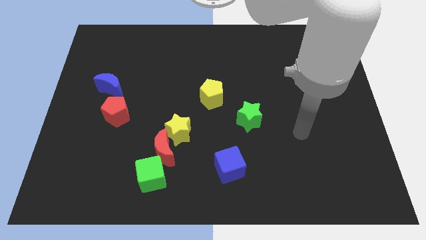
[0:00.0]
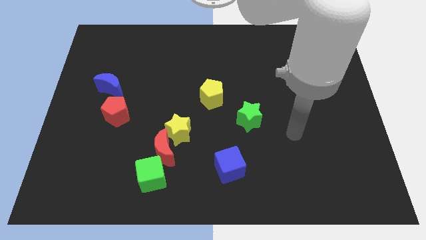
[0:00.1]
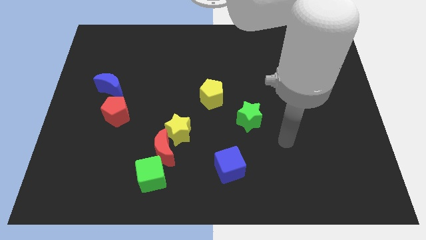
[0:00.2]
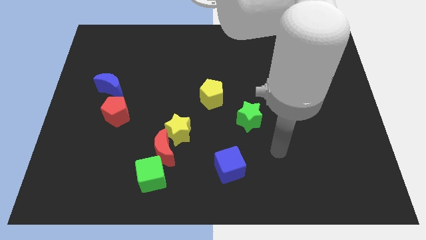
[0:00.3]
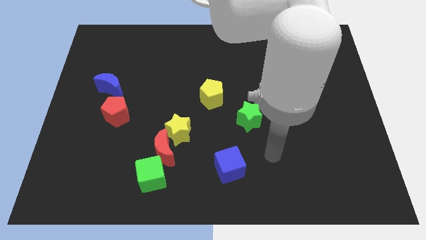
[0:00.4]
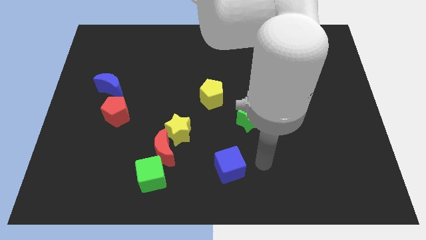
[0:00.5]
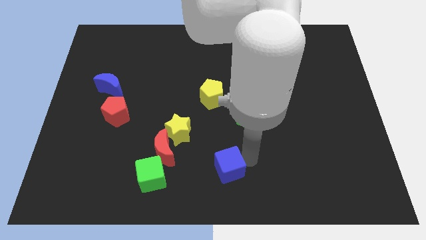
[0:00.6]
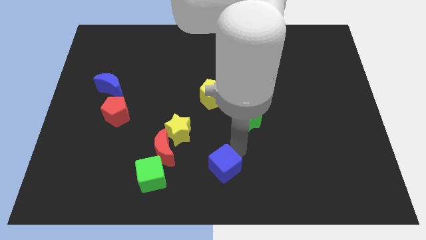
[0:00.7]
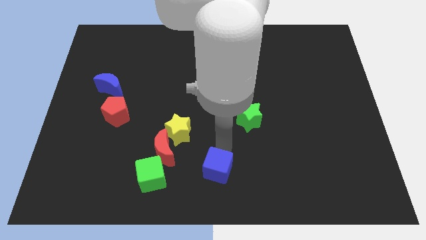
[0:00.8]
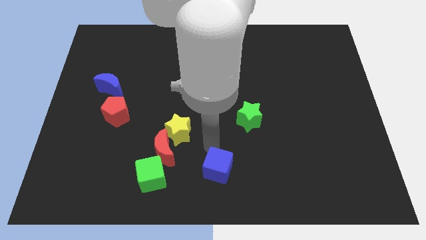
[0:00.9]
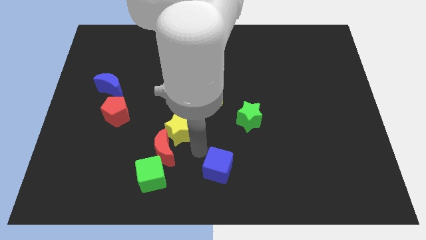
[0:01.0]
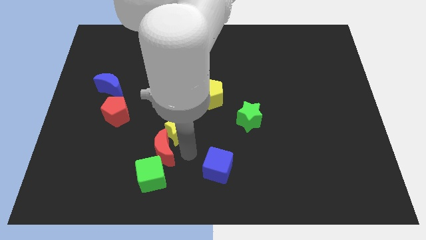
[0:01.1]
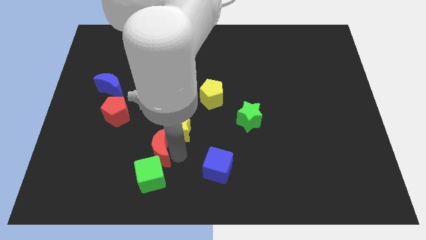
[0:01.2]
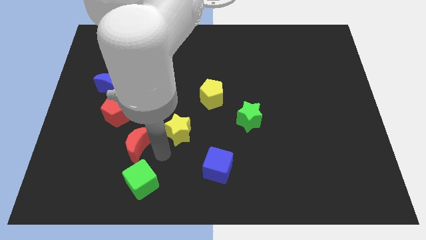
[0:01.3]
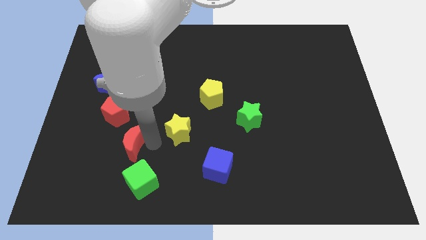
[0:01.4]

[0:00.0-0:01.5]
move the yellow star away from the red moon

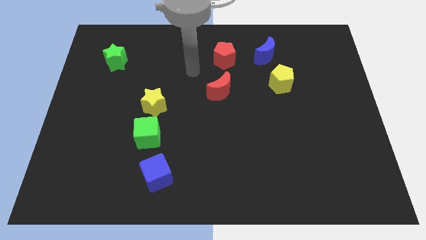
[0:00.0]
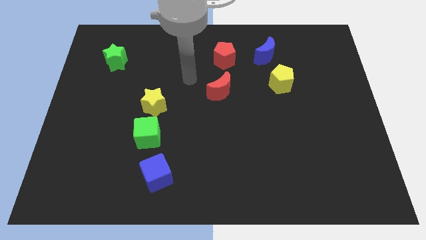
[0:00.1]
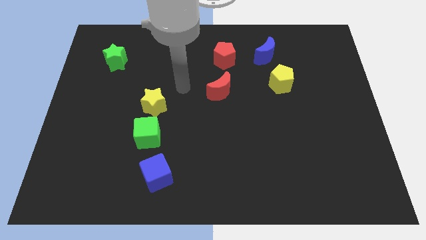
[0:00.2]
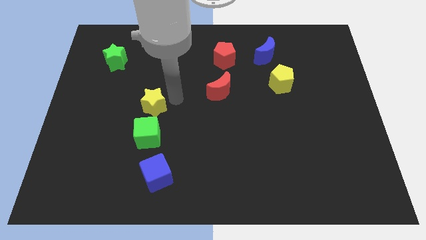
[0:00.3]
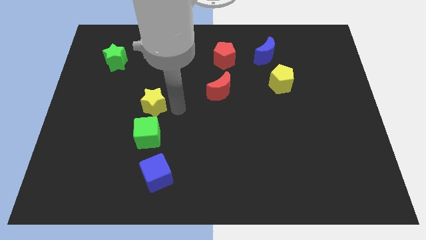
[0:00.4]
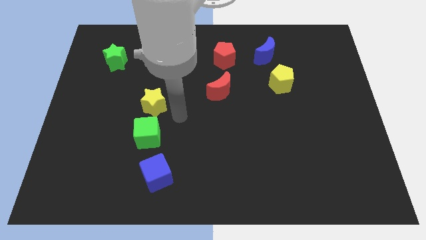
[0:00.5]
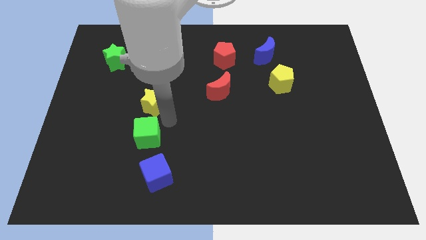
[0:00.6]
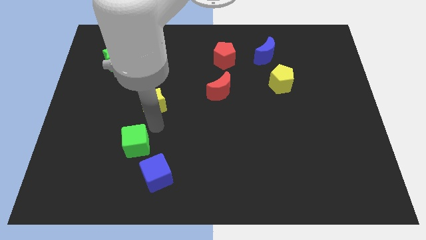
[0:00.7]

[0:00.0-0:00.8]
move the yellow star away from the green cube

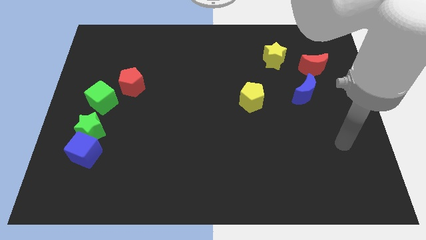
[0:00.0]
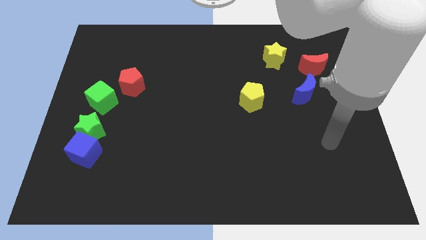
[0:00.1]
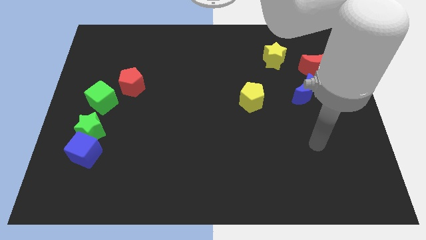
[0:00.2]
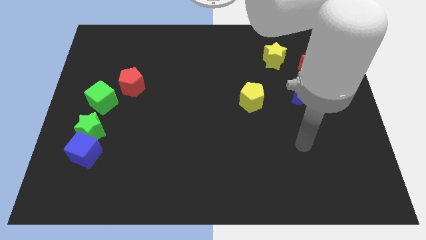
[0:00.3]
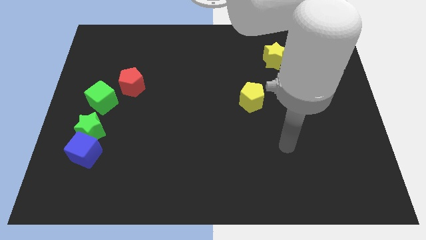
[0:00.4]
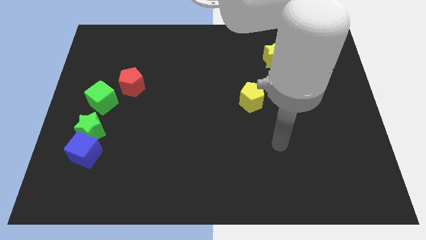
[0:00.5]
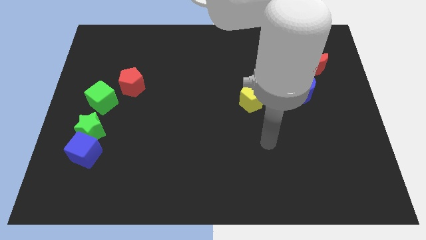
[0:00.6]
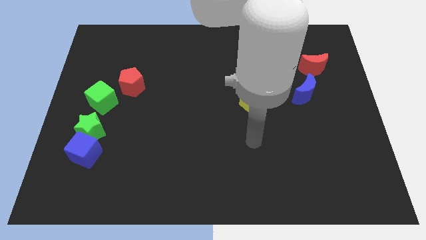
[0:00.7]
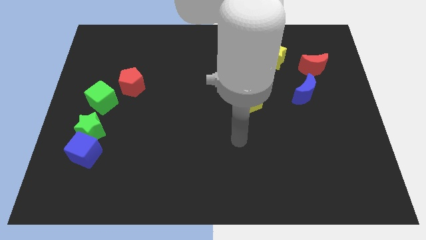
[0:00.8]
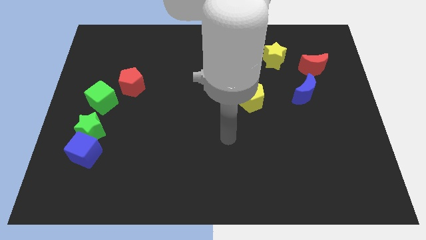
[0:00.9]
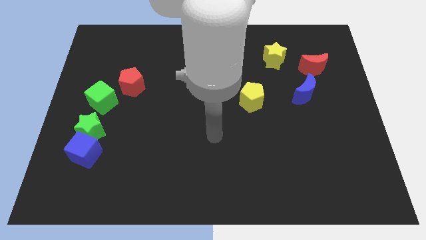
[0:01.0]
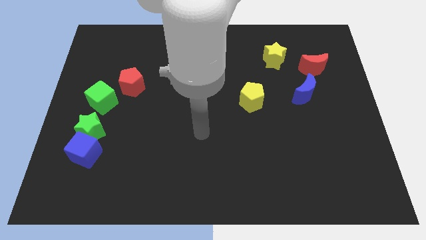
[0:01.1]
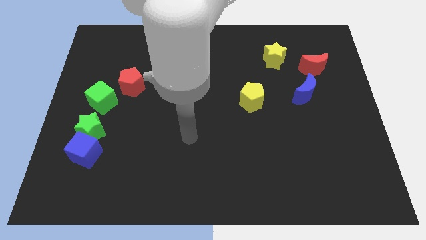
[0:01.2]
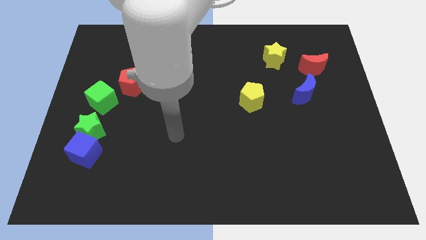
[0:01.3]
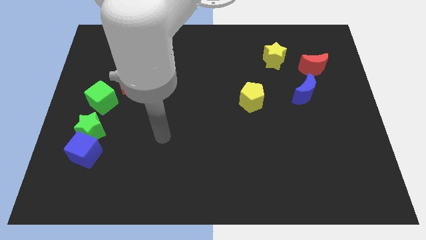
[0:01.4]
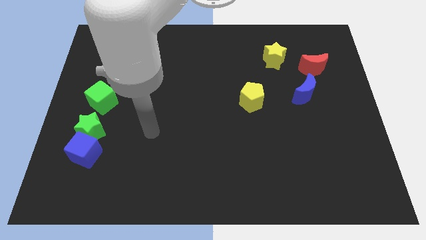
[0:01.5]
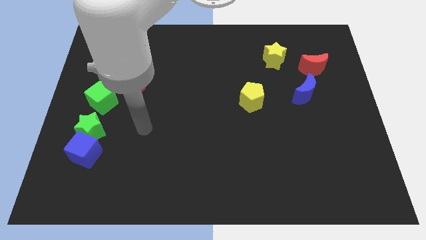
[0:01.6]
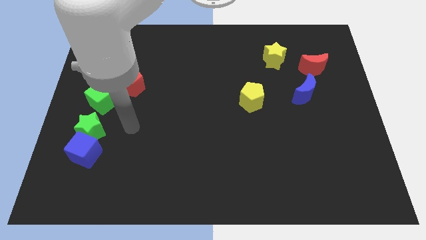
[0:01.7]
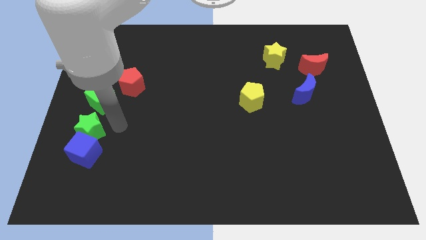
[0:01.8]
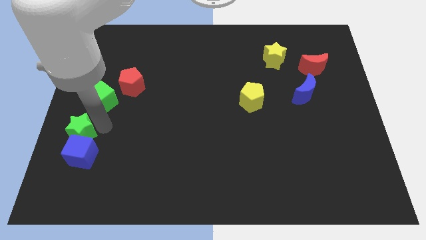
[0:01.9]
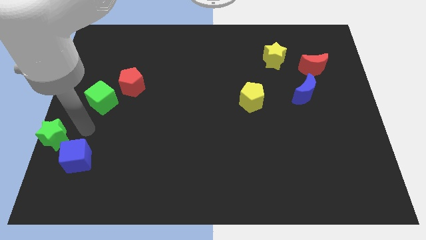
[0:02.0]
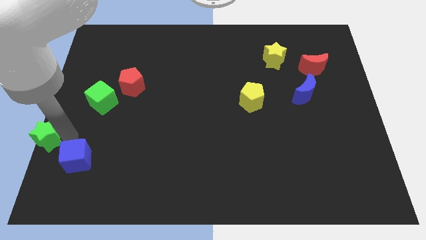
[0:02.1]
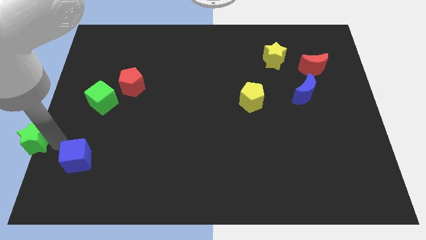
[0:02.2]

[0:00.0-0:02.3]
pull the blue cube apart from the green star

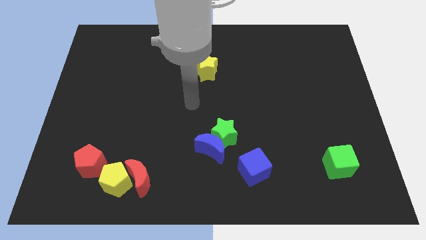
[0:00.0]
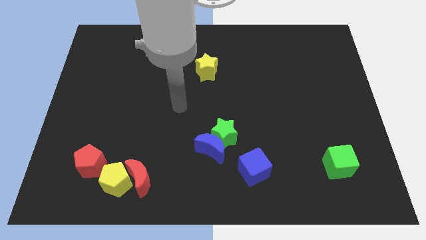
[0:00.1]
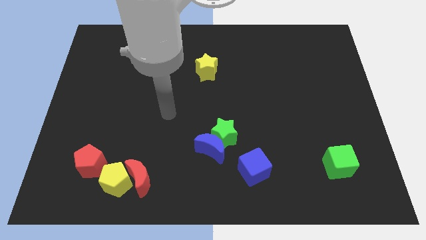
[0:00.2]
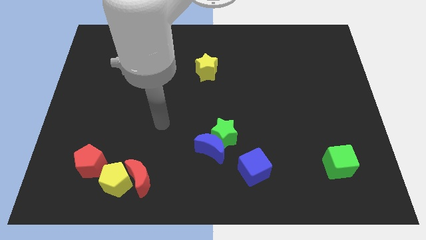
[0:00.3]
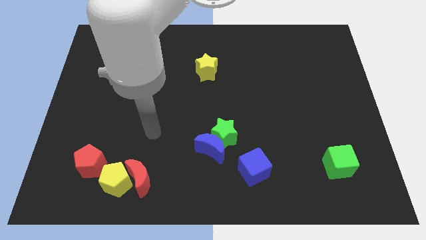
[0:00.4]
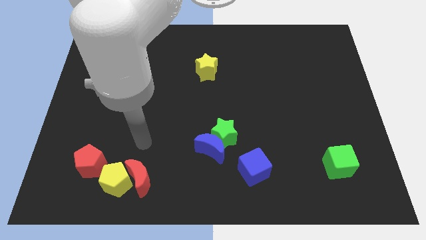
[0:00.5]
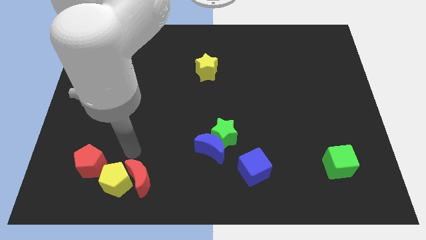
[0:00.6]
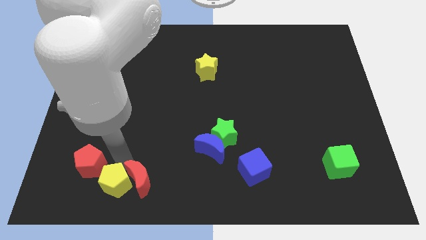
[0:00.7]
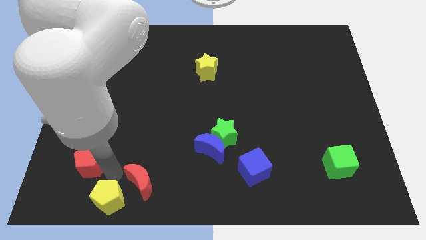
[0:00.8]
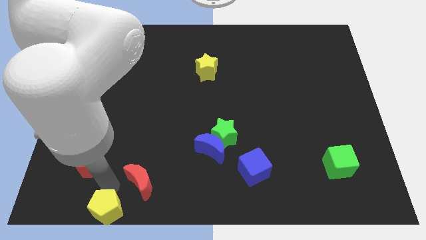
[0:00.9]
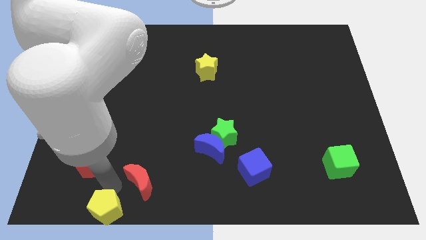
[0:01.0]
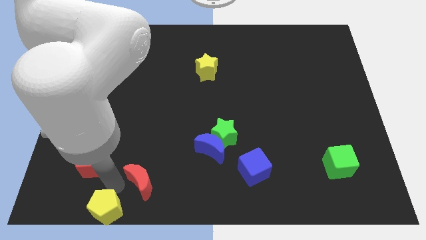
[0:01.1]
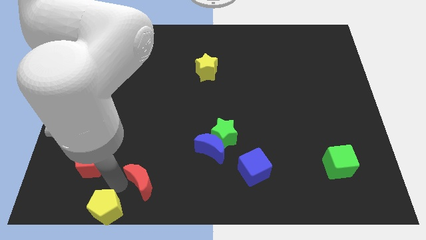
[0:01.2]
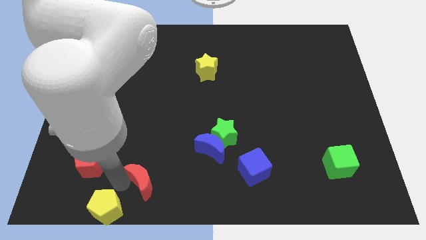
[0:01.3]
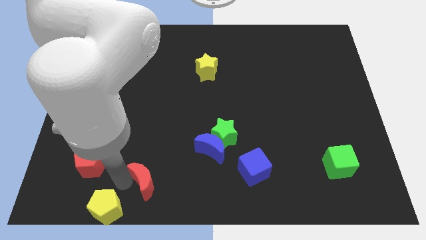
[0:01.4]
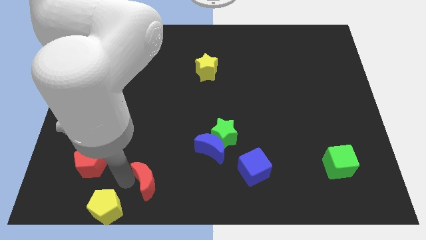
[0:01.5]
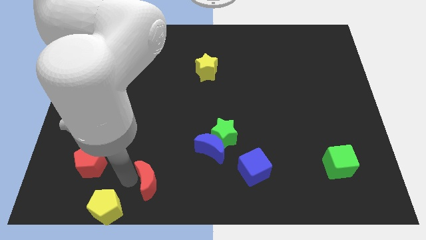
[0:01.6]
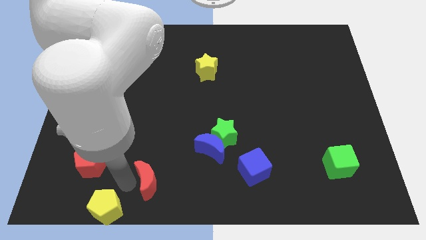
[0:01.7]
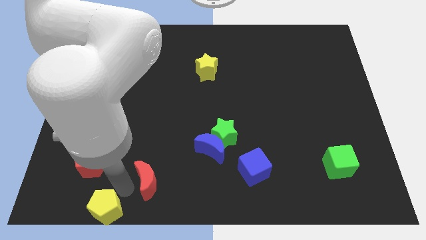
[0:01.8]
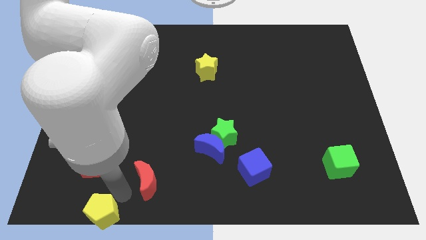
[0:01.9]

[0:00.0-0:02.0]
pull the red moon apart from the yellow pentagon

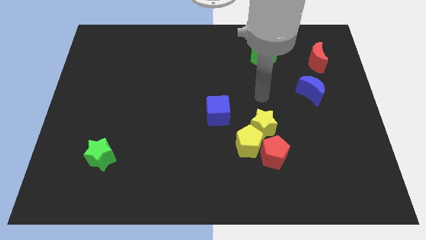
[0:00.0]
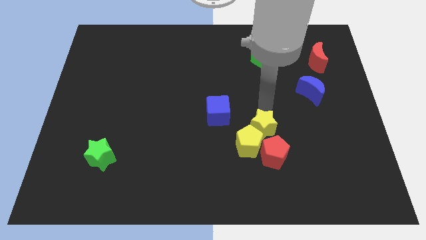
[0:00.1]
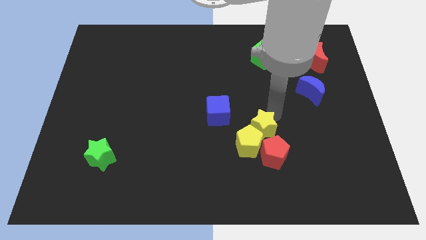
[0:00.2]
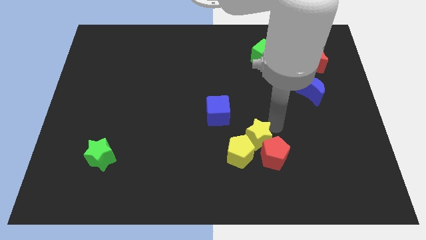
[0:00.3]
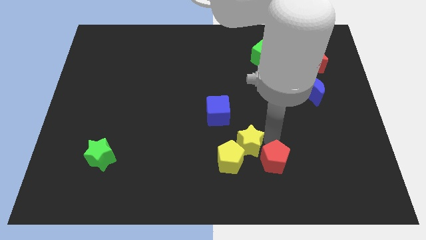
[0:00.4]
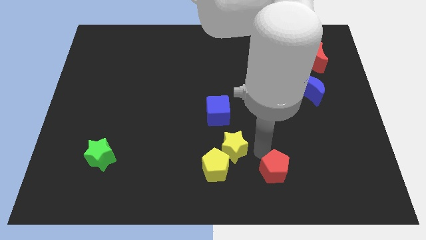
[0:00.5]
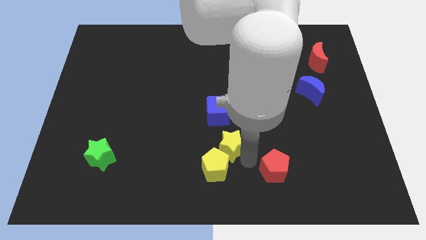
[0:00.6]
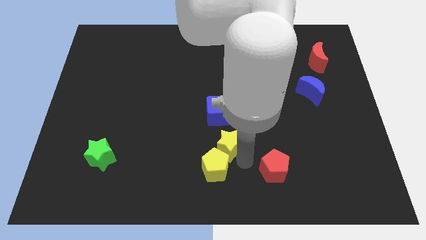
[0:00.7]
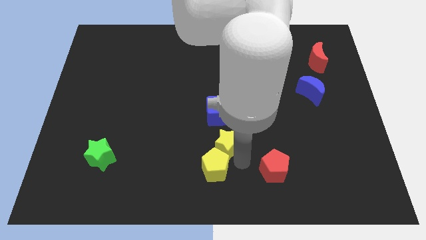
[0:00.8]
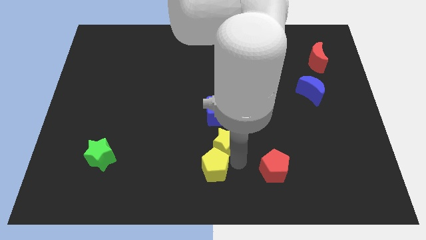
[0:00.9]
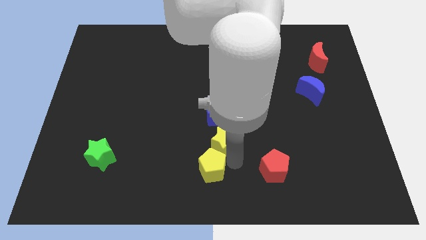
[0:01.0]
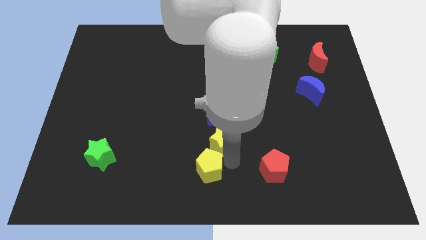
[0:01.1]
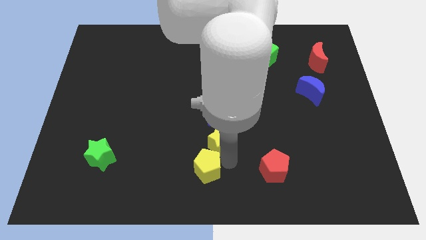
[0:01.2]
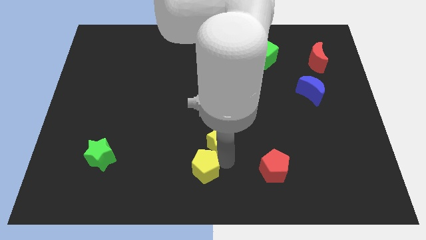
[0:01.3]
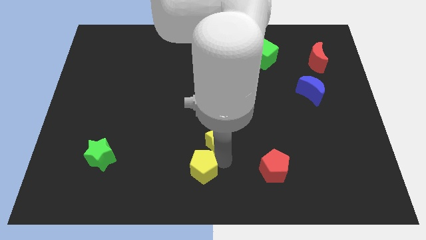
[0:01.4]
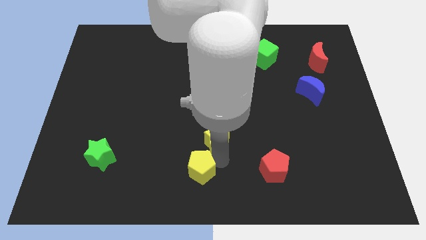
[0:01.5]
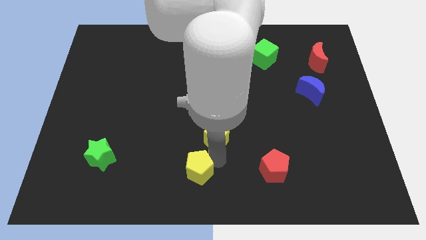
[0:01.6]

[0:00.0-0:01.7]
move the yellow pentagon away from the yellow star and red pentagon

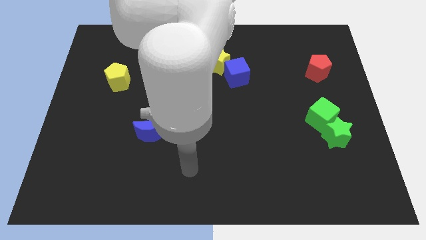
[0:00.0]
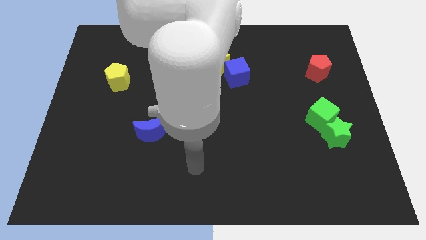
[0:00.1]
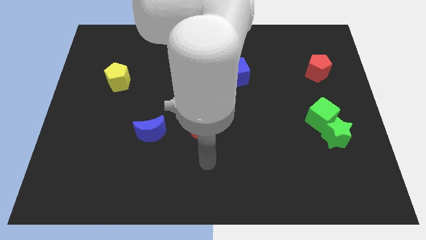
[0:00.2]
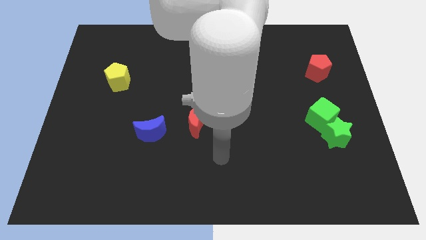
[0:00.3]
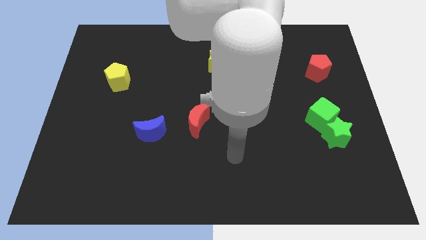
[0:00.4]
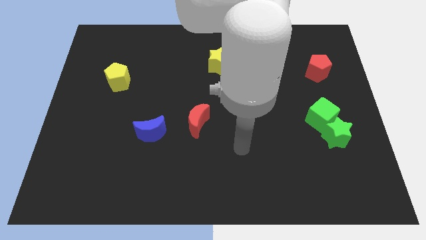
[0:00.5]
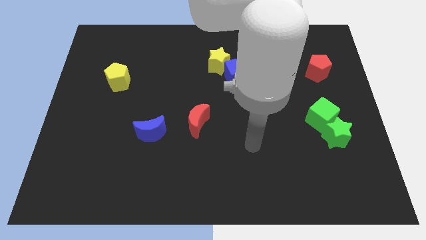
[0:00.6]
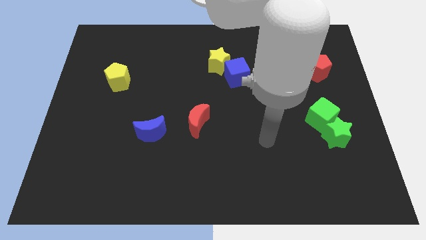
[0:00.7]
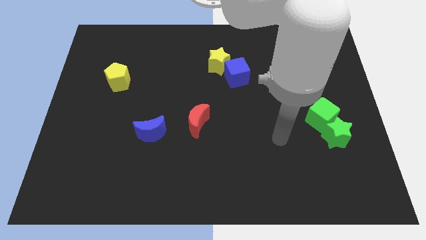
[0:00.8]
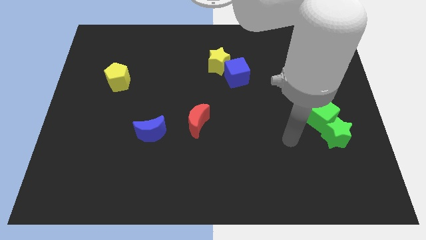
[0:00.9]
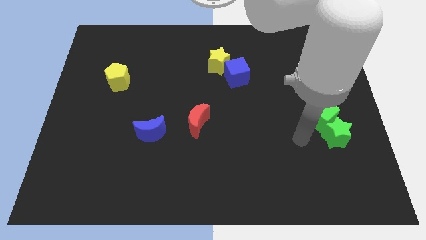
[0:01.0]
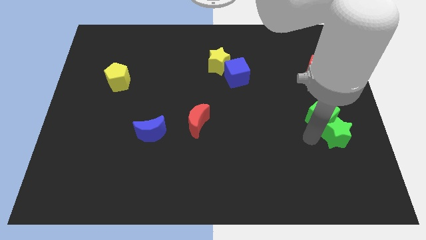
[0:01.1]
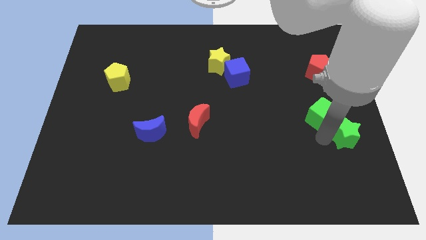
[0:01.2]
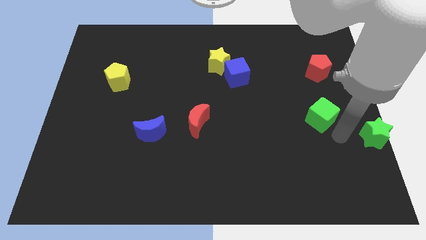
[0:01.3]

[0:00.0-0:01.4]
move the green cube away from the green star
